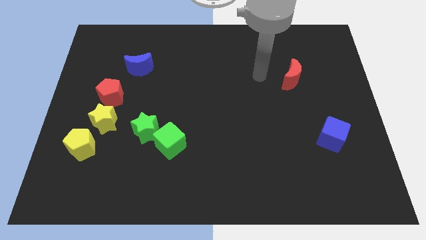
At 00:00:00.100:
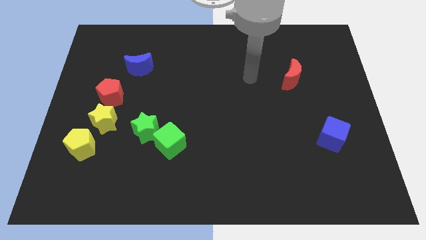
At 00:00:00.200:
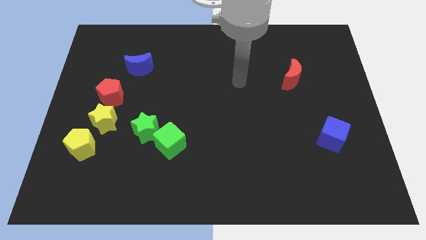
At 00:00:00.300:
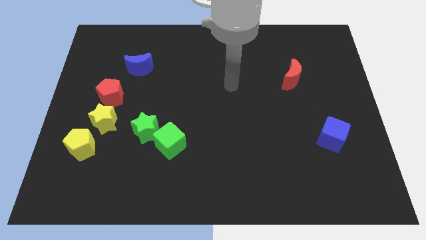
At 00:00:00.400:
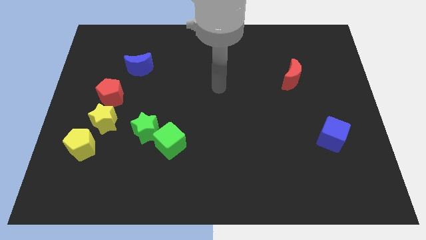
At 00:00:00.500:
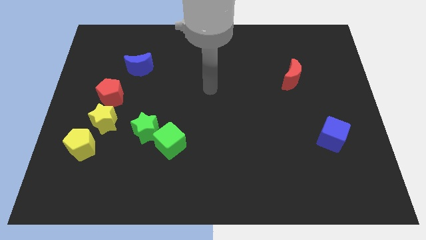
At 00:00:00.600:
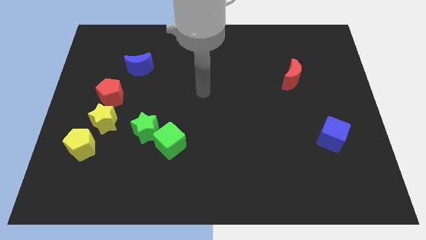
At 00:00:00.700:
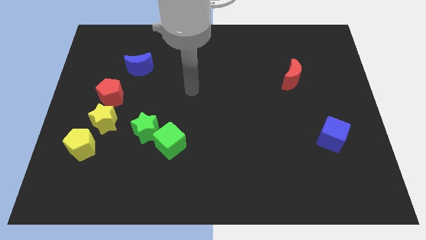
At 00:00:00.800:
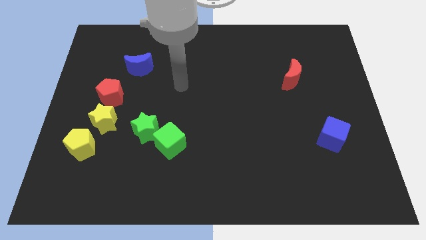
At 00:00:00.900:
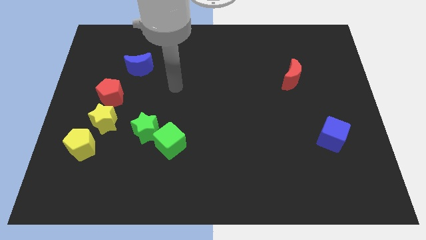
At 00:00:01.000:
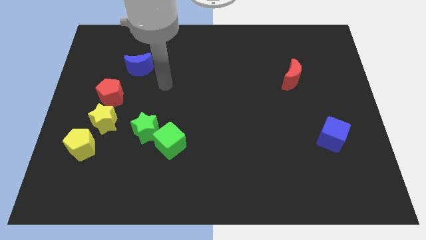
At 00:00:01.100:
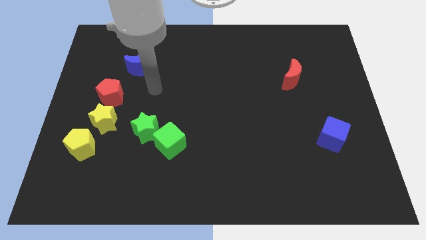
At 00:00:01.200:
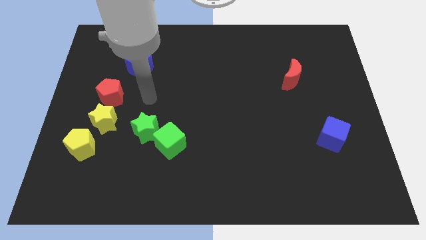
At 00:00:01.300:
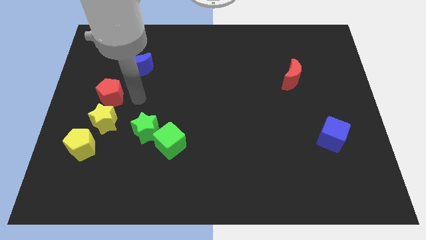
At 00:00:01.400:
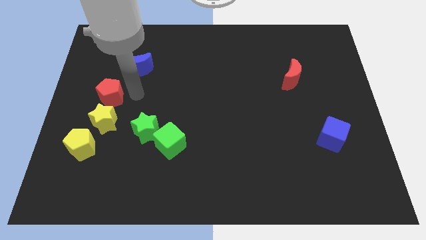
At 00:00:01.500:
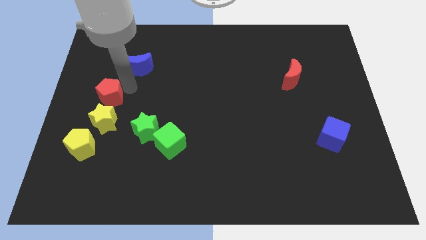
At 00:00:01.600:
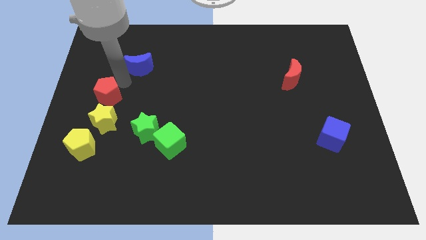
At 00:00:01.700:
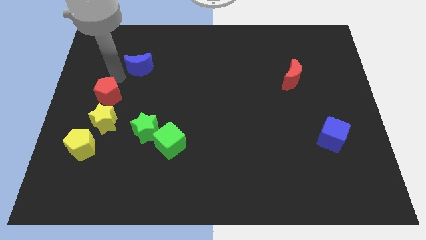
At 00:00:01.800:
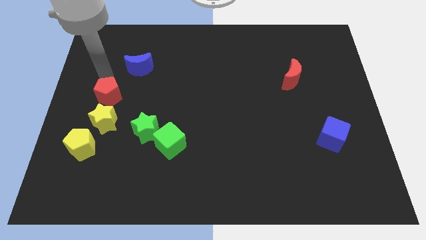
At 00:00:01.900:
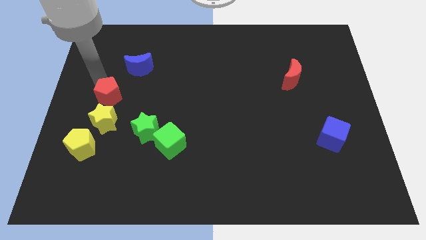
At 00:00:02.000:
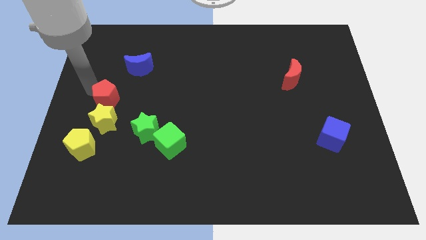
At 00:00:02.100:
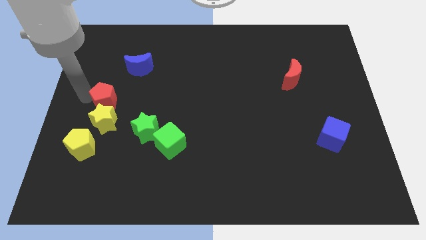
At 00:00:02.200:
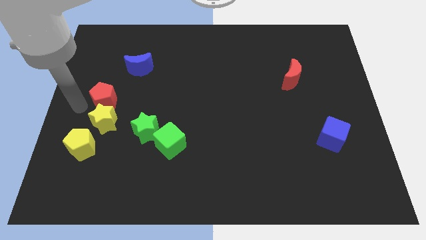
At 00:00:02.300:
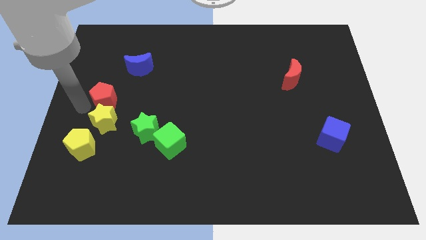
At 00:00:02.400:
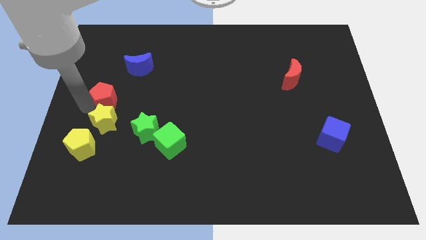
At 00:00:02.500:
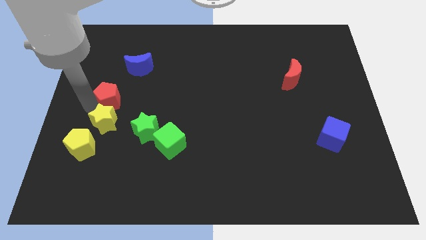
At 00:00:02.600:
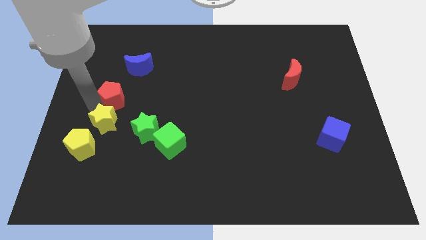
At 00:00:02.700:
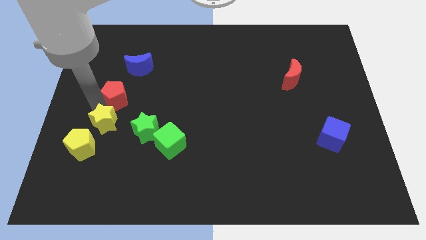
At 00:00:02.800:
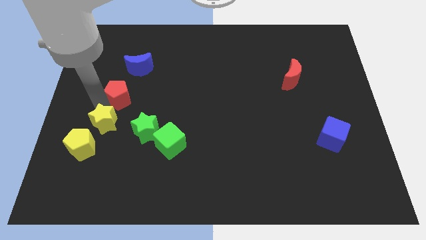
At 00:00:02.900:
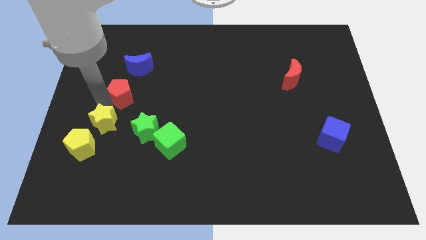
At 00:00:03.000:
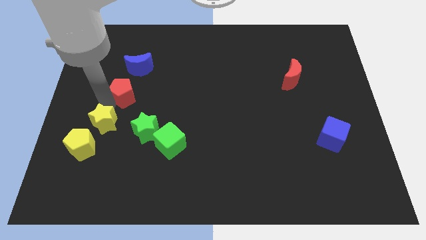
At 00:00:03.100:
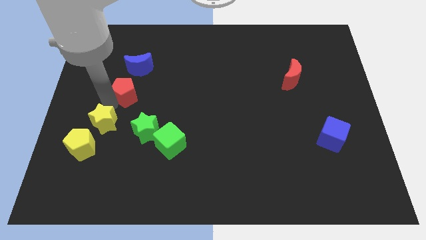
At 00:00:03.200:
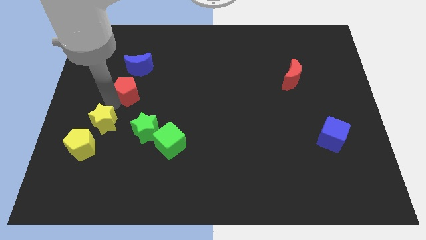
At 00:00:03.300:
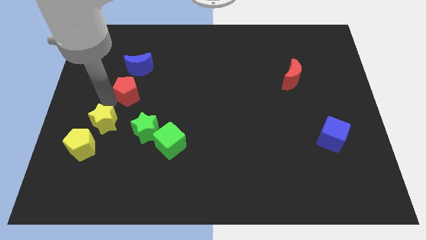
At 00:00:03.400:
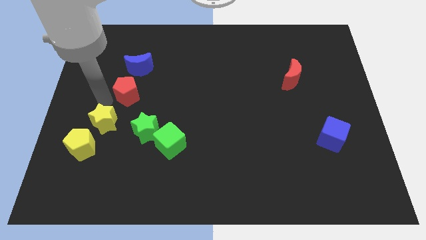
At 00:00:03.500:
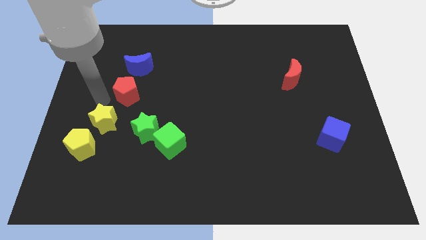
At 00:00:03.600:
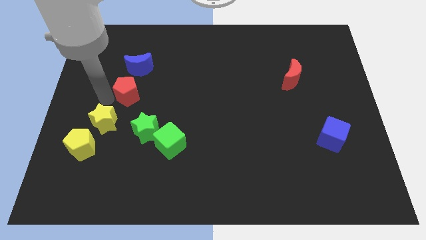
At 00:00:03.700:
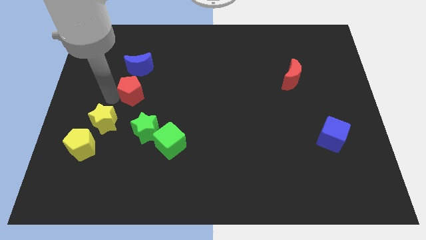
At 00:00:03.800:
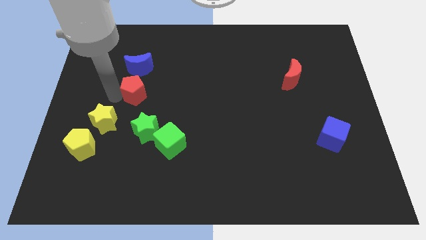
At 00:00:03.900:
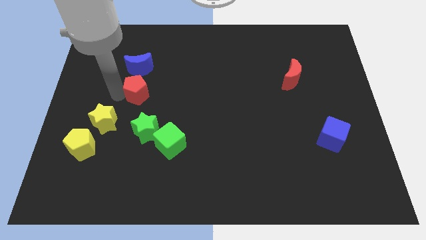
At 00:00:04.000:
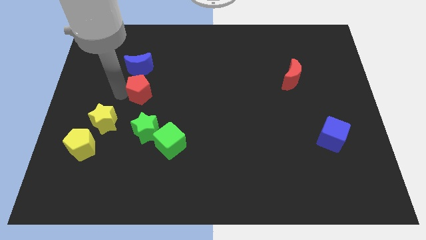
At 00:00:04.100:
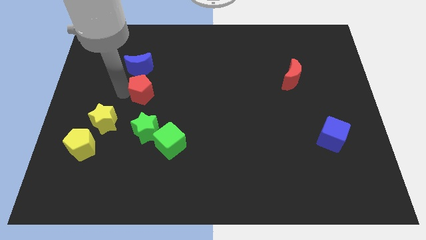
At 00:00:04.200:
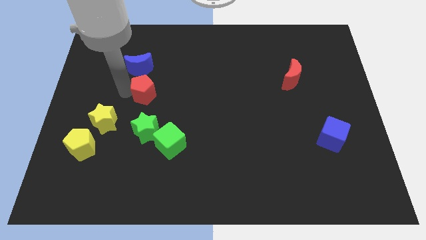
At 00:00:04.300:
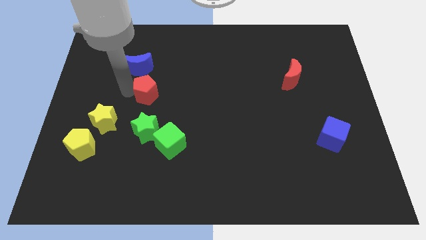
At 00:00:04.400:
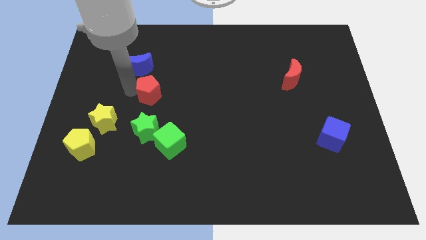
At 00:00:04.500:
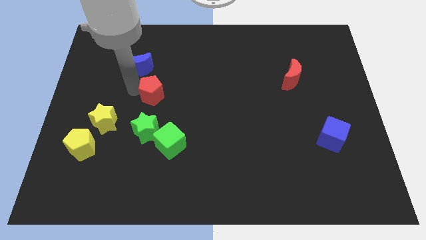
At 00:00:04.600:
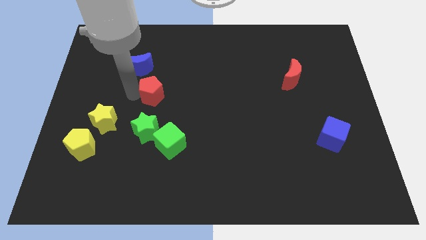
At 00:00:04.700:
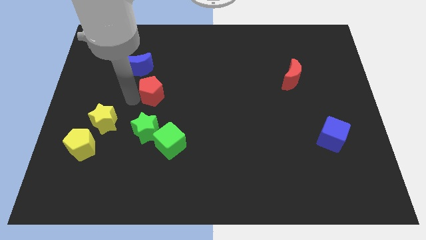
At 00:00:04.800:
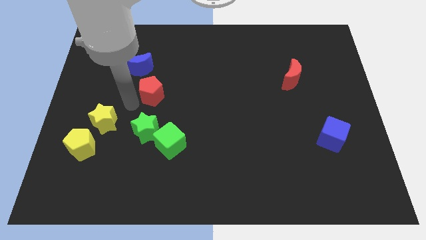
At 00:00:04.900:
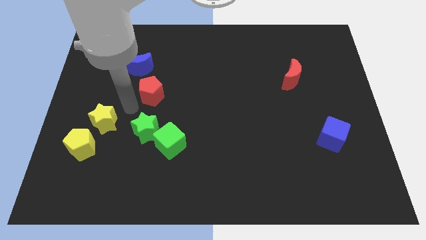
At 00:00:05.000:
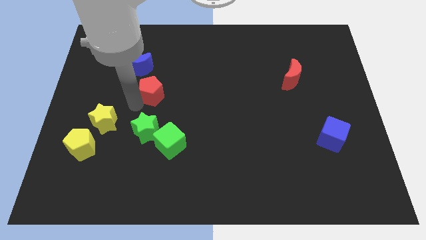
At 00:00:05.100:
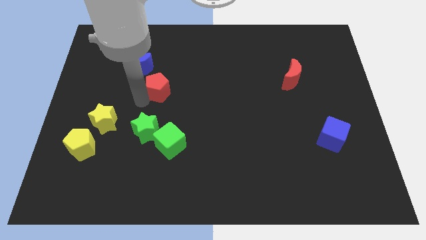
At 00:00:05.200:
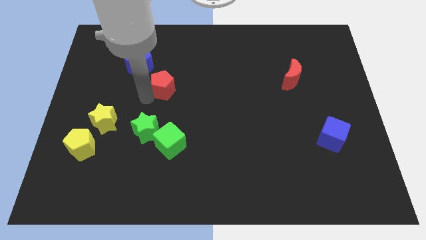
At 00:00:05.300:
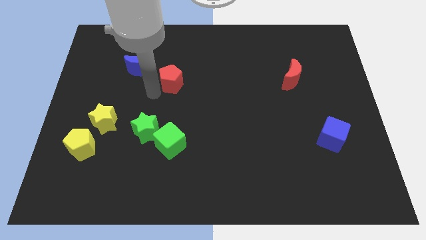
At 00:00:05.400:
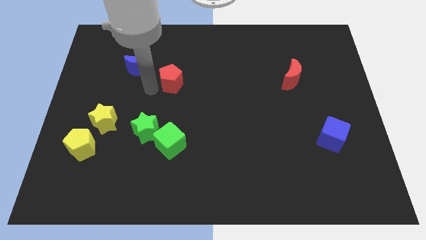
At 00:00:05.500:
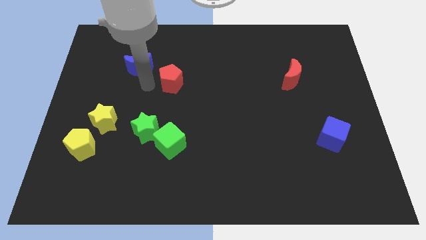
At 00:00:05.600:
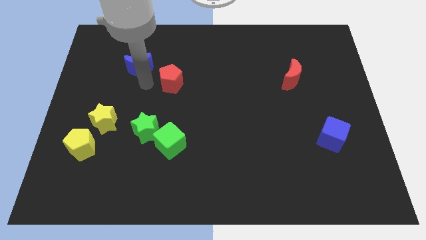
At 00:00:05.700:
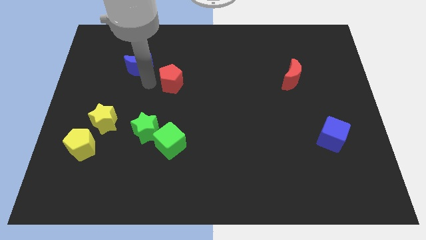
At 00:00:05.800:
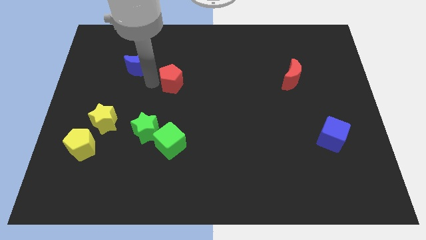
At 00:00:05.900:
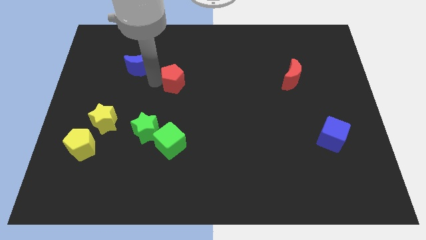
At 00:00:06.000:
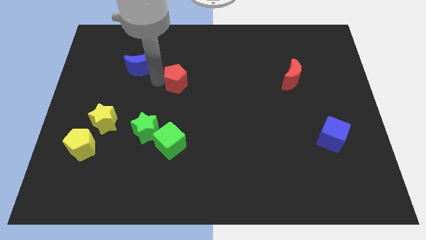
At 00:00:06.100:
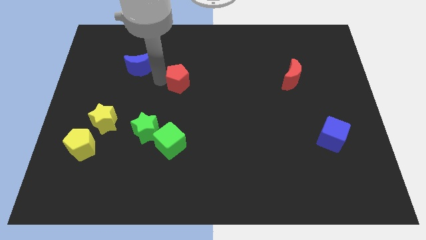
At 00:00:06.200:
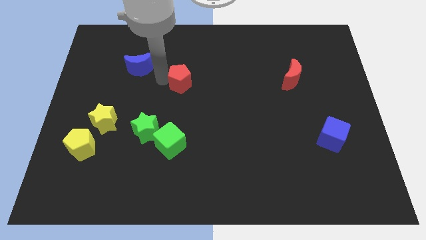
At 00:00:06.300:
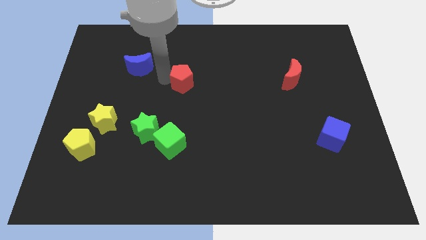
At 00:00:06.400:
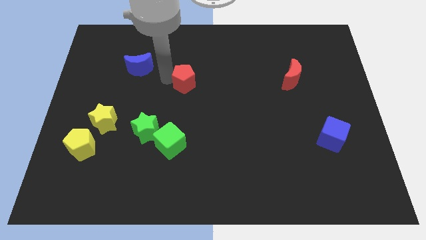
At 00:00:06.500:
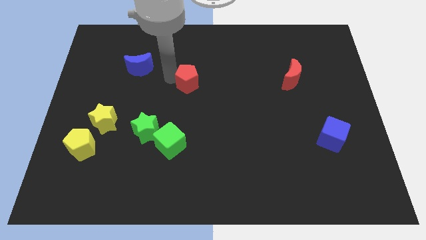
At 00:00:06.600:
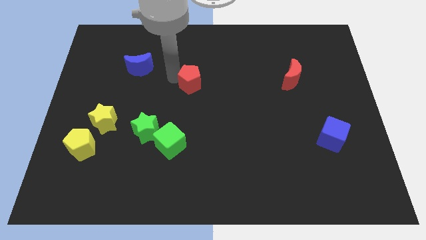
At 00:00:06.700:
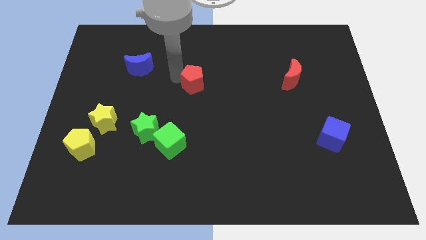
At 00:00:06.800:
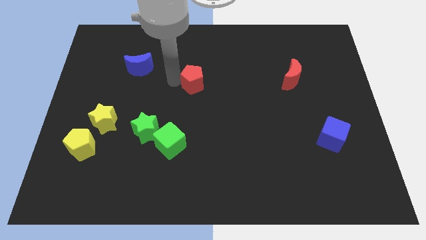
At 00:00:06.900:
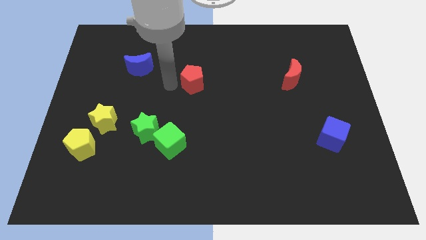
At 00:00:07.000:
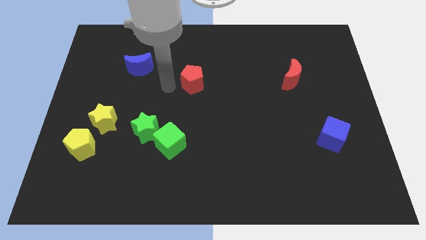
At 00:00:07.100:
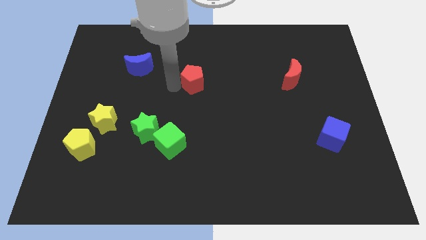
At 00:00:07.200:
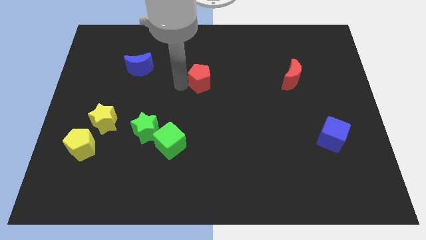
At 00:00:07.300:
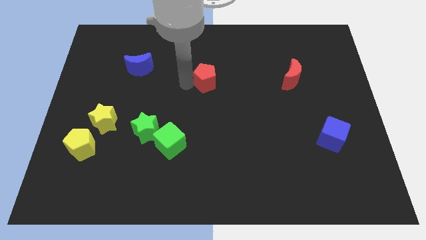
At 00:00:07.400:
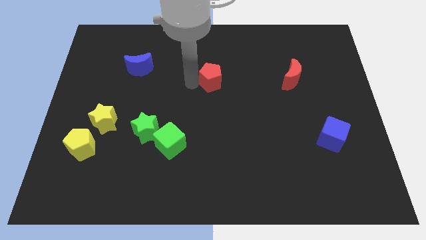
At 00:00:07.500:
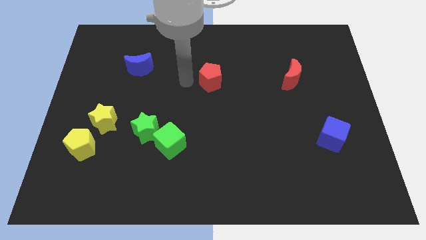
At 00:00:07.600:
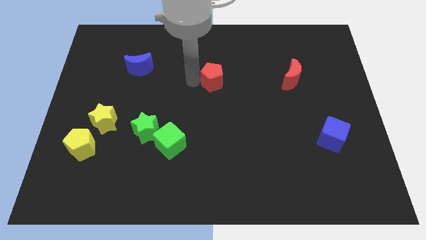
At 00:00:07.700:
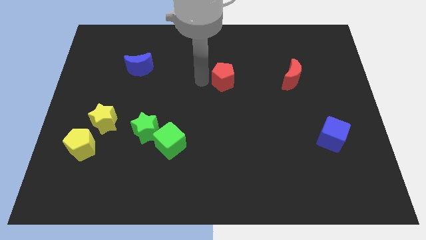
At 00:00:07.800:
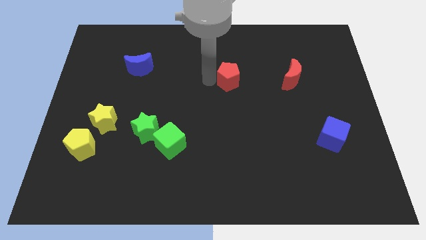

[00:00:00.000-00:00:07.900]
slide the red pentagon to the left of the red moon
